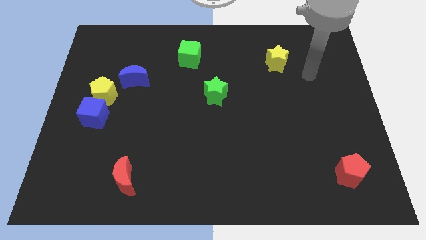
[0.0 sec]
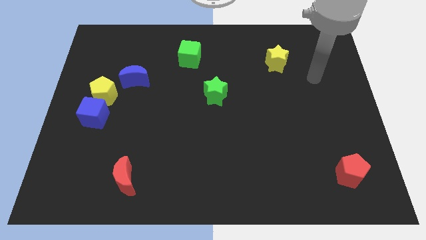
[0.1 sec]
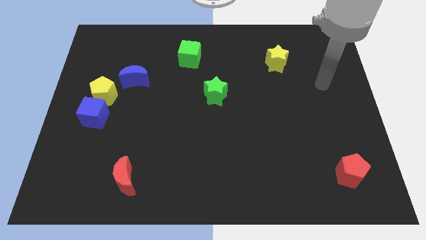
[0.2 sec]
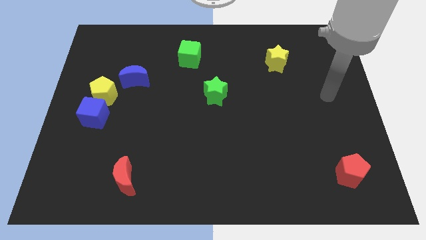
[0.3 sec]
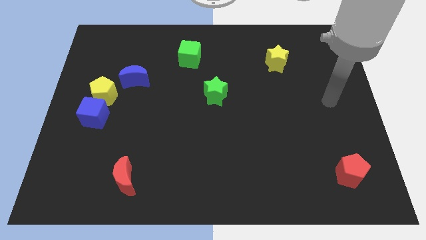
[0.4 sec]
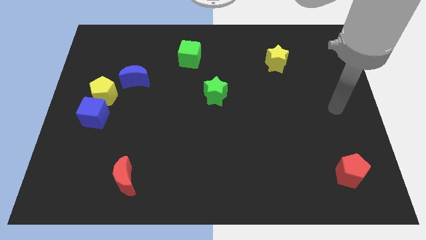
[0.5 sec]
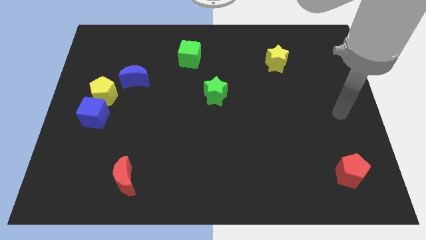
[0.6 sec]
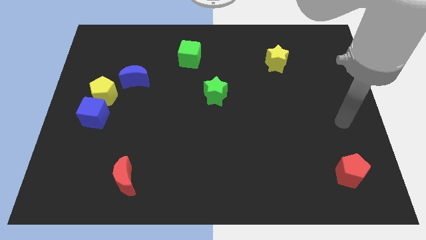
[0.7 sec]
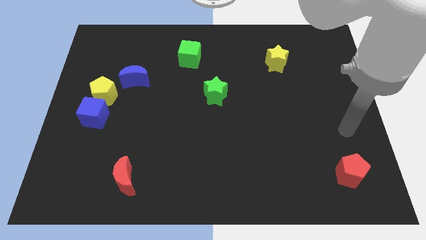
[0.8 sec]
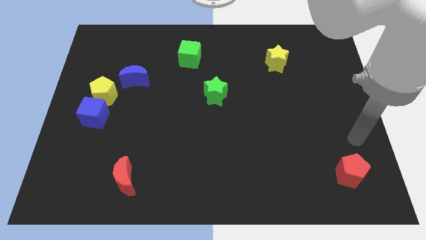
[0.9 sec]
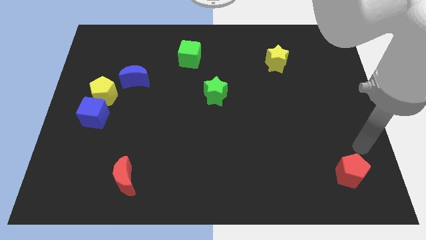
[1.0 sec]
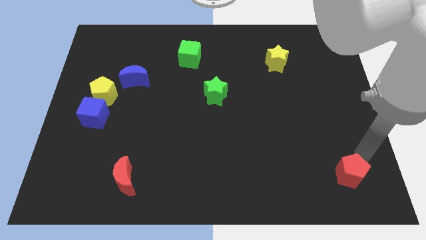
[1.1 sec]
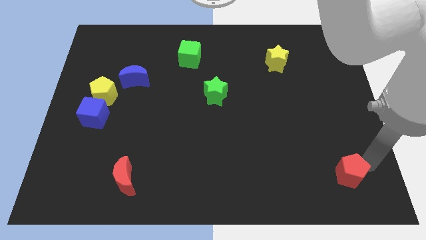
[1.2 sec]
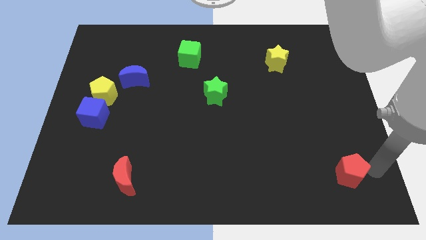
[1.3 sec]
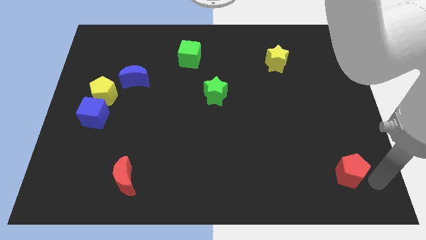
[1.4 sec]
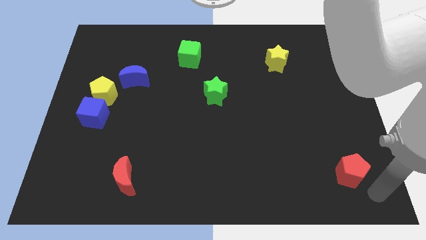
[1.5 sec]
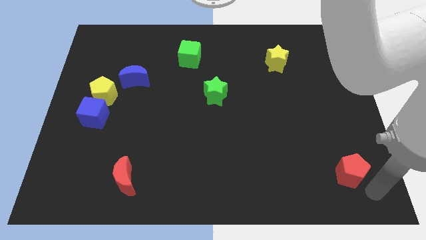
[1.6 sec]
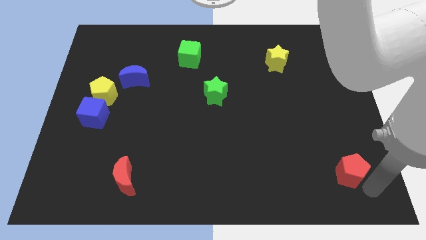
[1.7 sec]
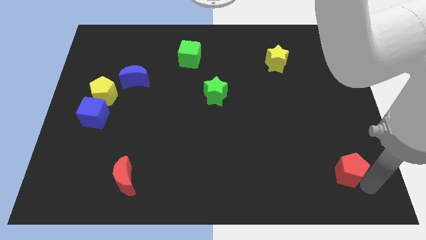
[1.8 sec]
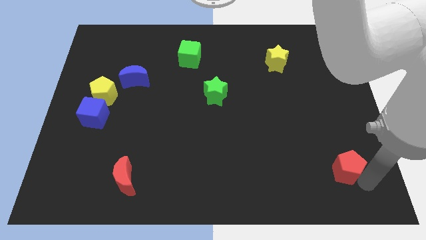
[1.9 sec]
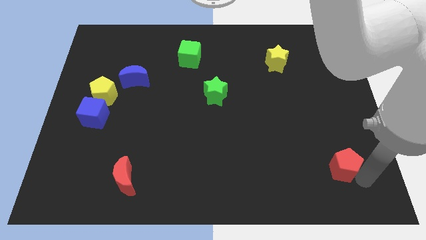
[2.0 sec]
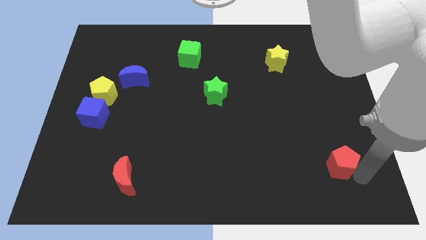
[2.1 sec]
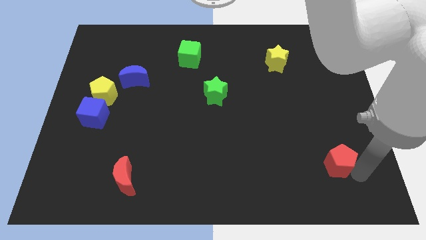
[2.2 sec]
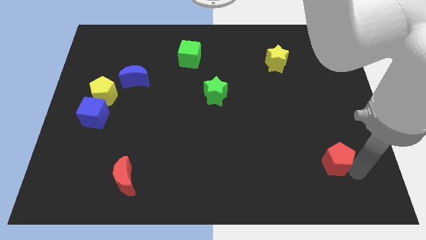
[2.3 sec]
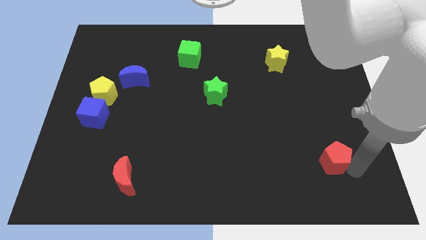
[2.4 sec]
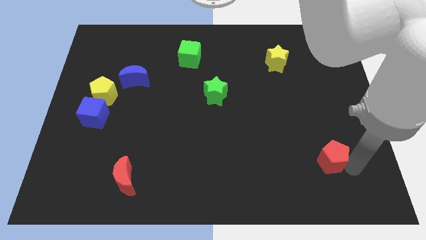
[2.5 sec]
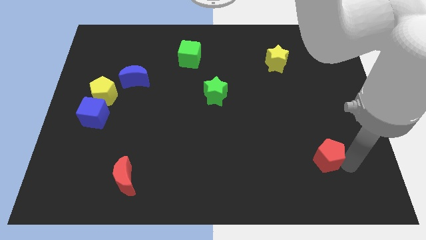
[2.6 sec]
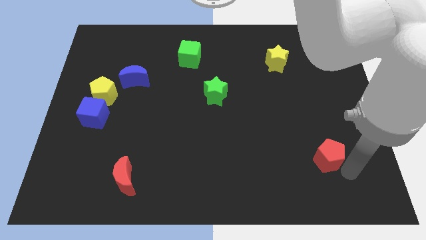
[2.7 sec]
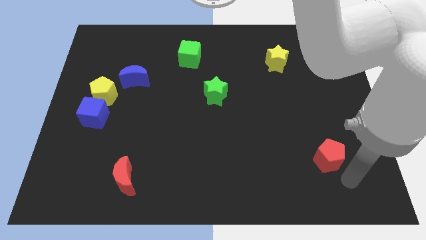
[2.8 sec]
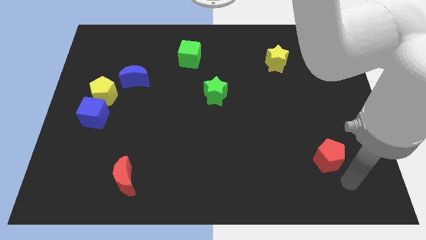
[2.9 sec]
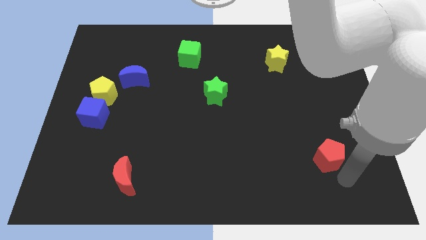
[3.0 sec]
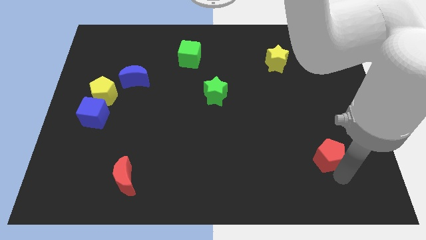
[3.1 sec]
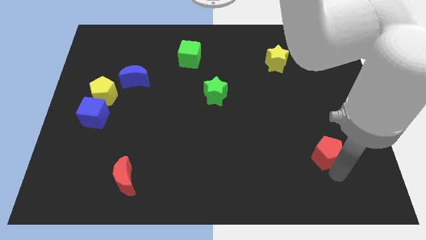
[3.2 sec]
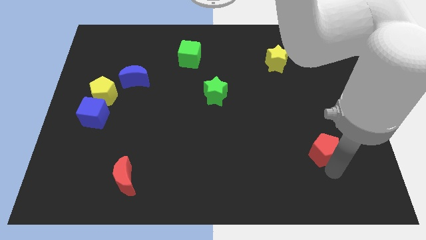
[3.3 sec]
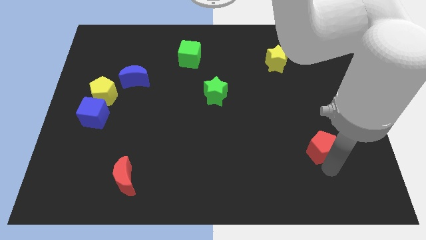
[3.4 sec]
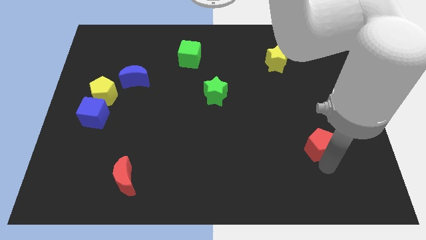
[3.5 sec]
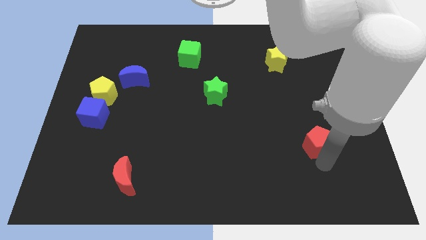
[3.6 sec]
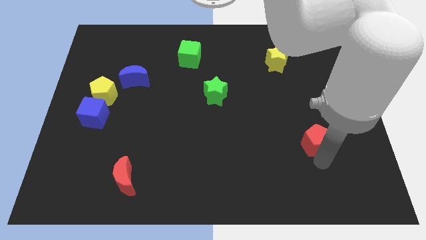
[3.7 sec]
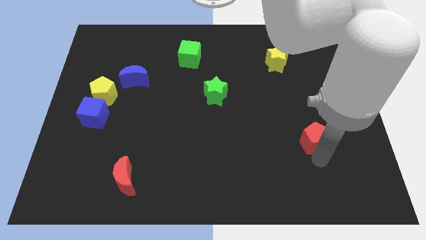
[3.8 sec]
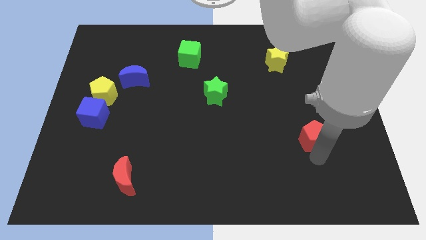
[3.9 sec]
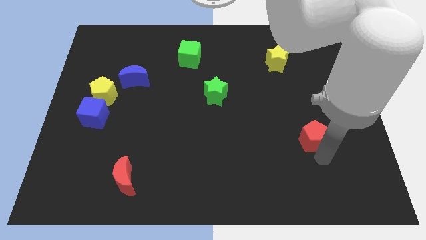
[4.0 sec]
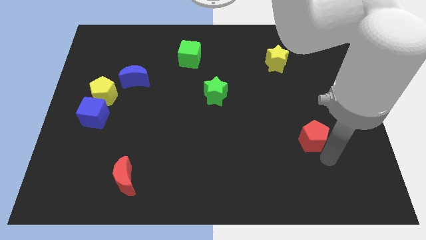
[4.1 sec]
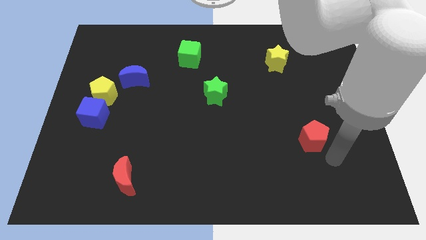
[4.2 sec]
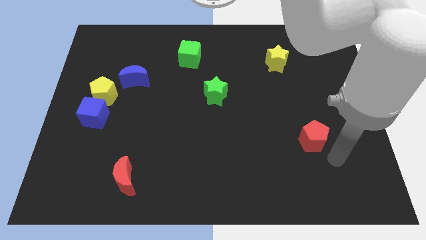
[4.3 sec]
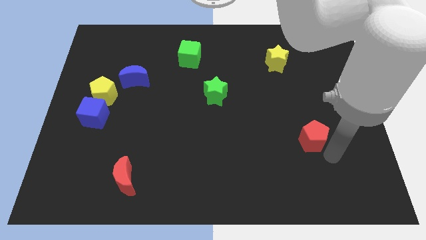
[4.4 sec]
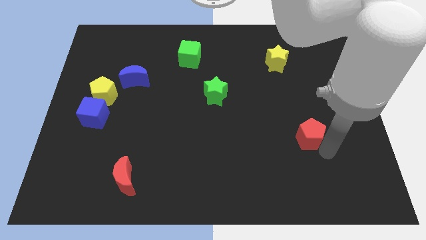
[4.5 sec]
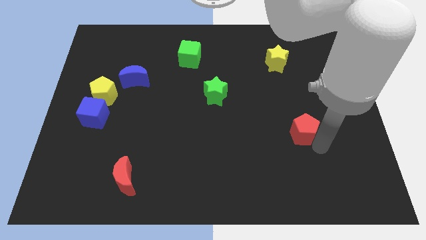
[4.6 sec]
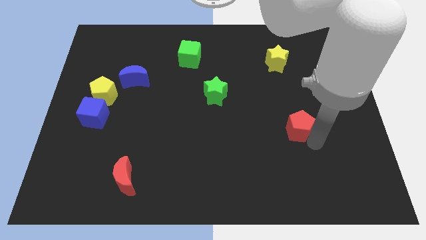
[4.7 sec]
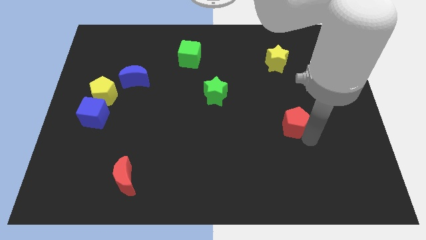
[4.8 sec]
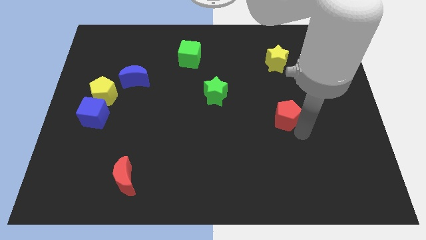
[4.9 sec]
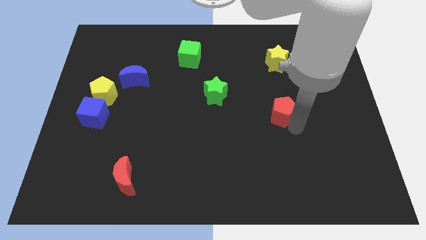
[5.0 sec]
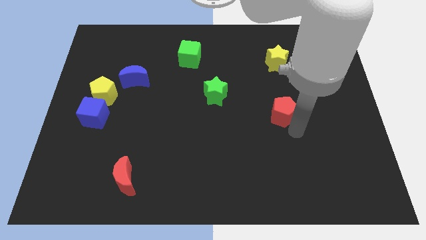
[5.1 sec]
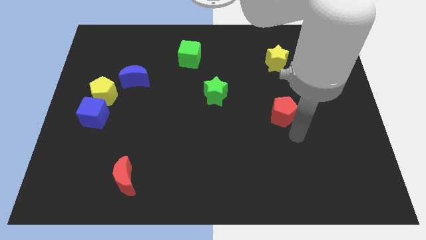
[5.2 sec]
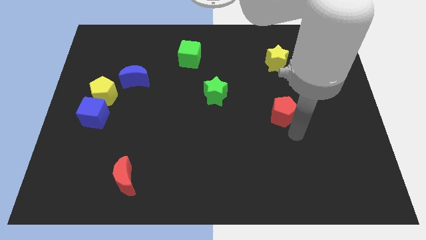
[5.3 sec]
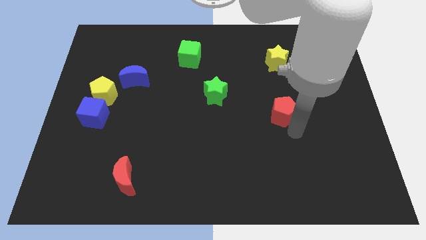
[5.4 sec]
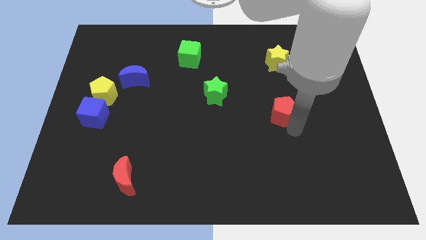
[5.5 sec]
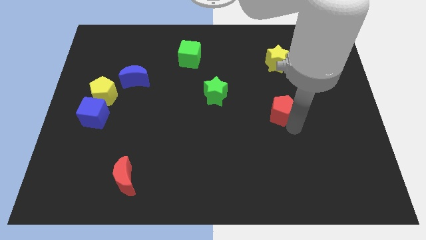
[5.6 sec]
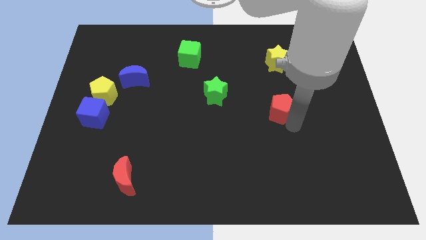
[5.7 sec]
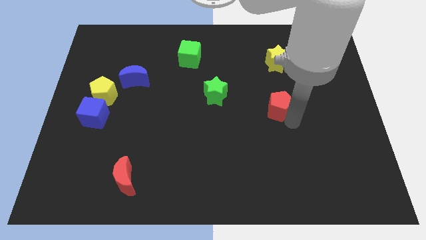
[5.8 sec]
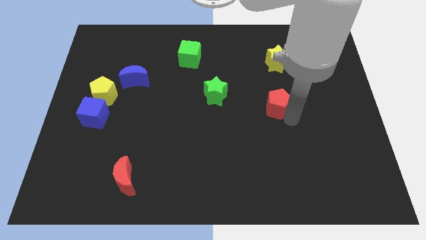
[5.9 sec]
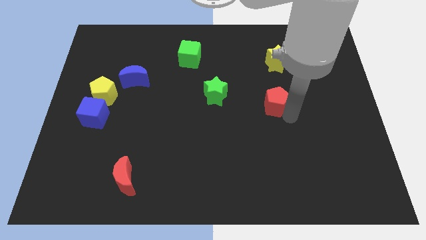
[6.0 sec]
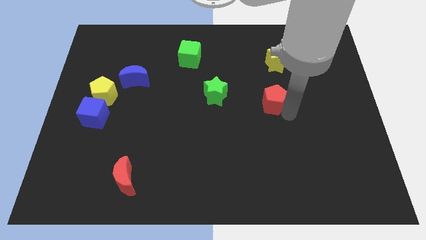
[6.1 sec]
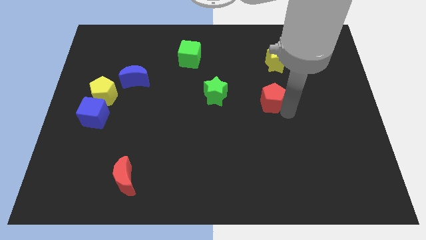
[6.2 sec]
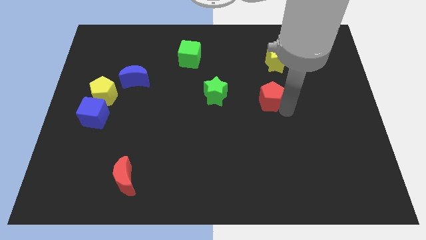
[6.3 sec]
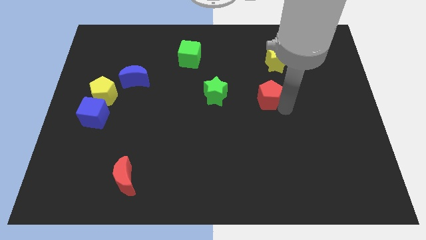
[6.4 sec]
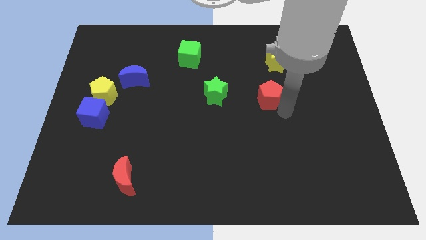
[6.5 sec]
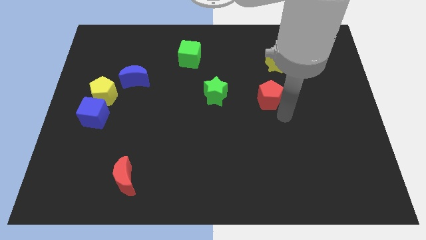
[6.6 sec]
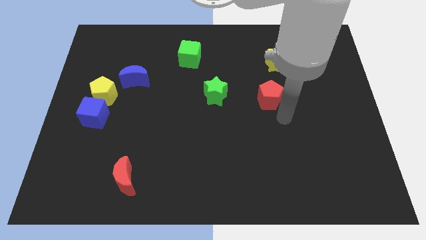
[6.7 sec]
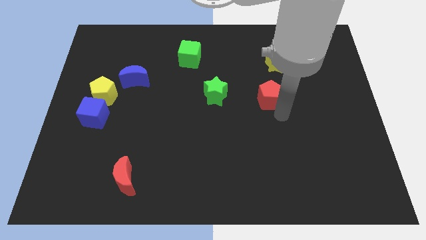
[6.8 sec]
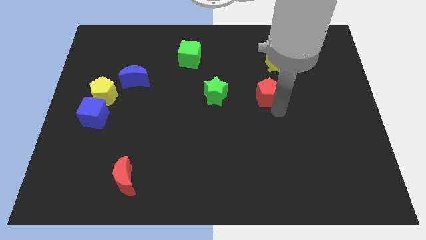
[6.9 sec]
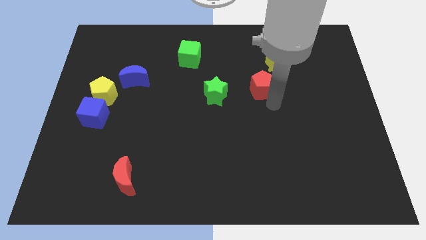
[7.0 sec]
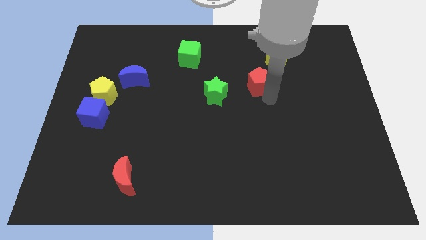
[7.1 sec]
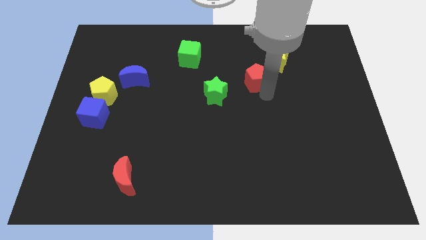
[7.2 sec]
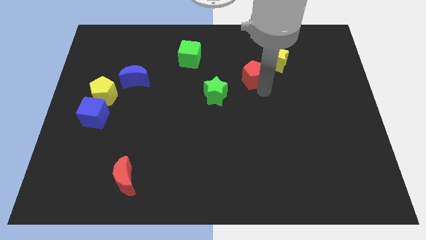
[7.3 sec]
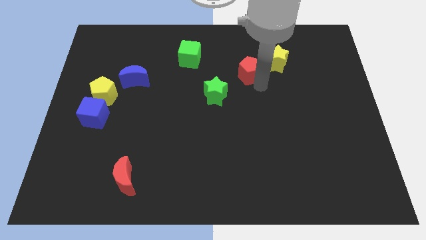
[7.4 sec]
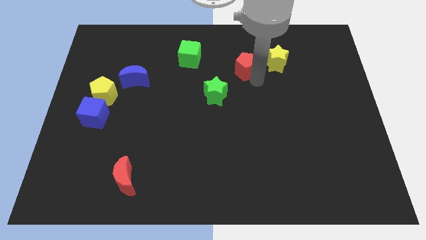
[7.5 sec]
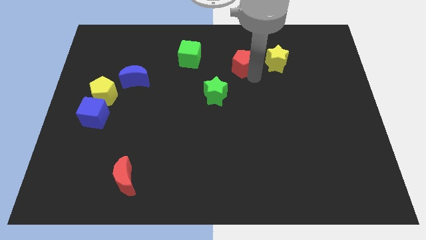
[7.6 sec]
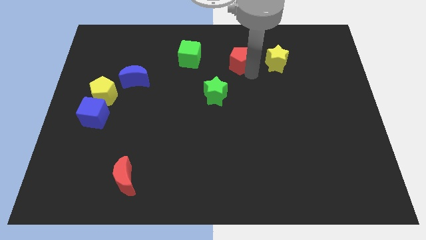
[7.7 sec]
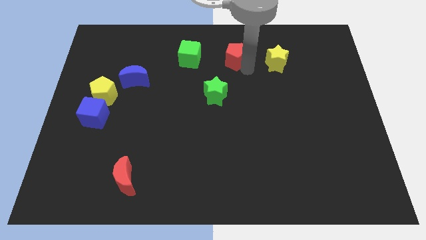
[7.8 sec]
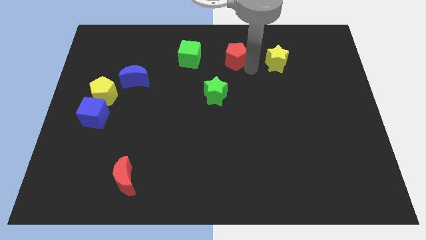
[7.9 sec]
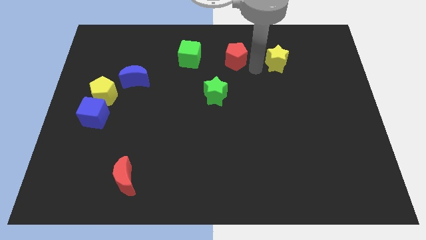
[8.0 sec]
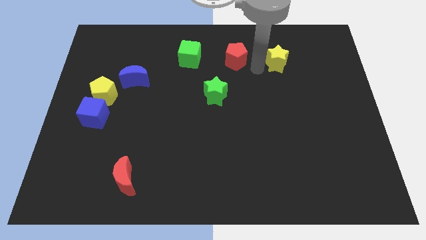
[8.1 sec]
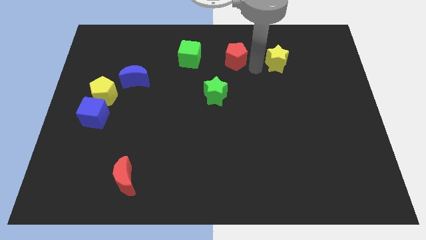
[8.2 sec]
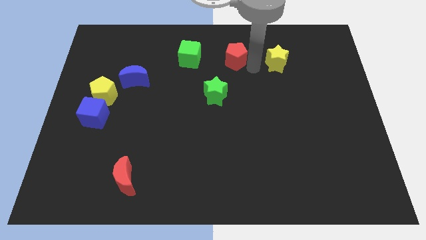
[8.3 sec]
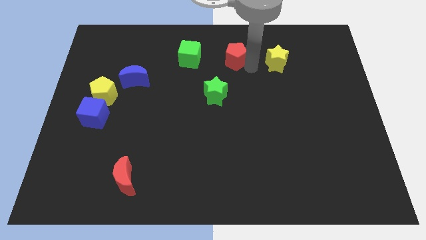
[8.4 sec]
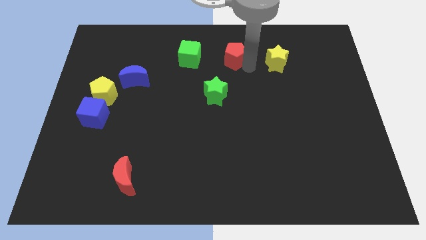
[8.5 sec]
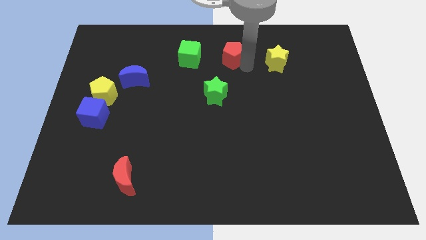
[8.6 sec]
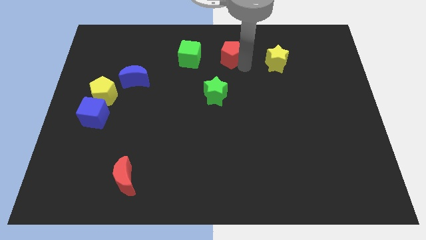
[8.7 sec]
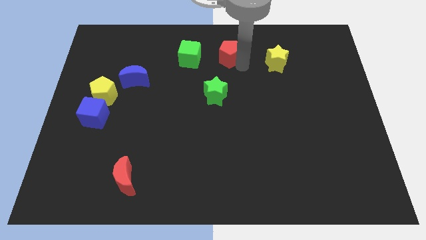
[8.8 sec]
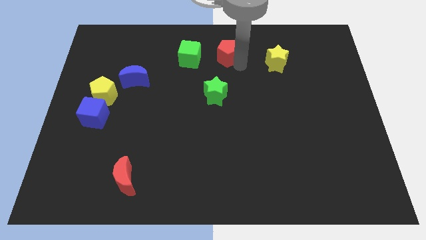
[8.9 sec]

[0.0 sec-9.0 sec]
move the red pentagon to the top
